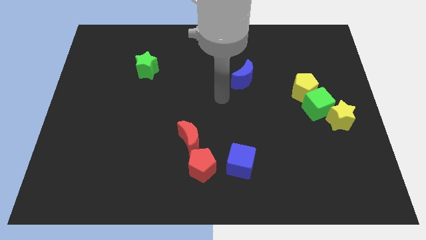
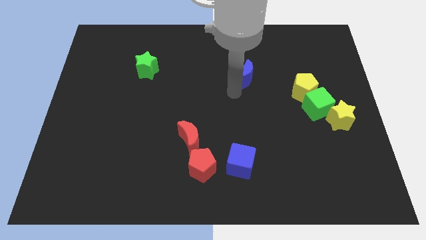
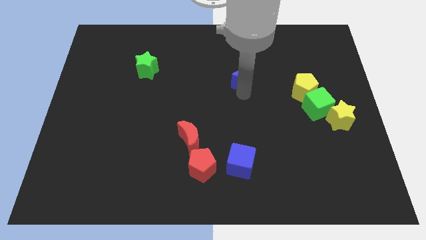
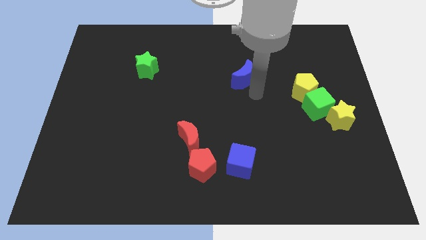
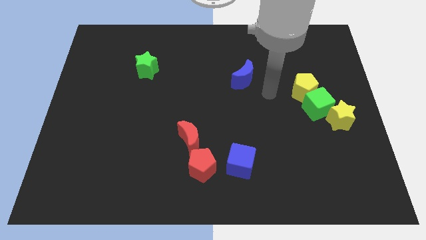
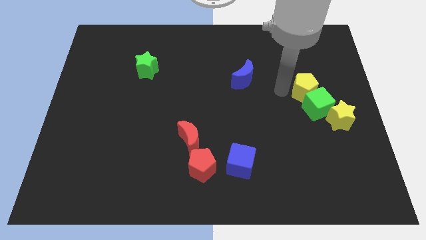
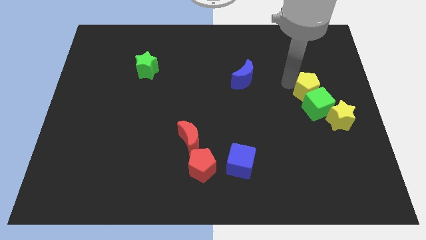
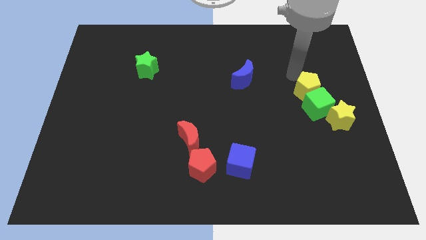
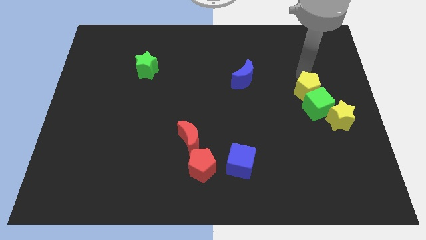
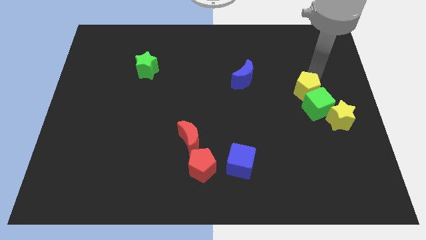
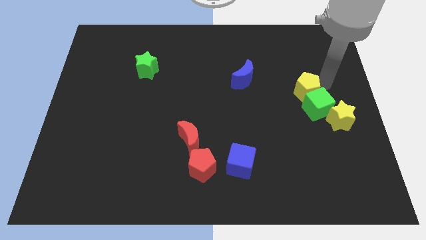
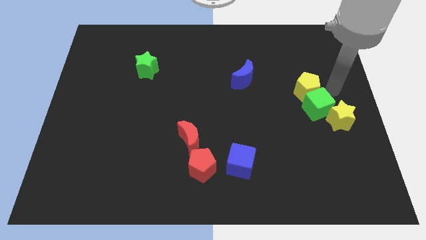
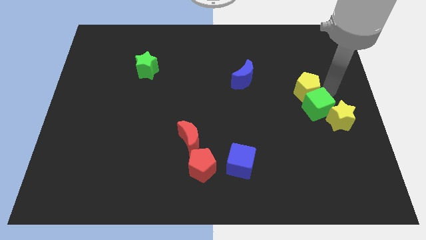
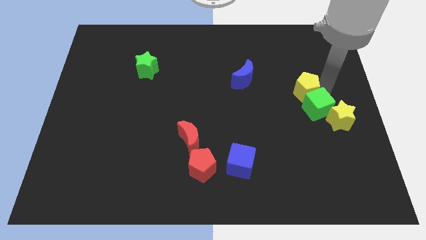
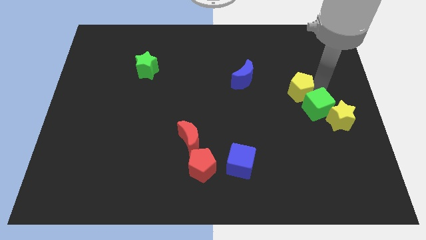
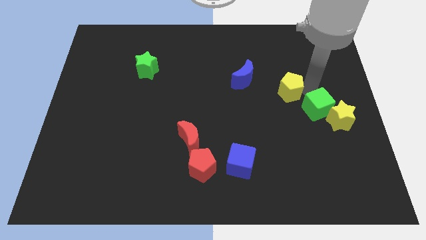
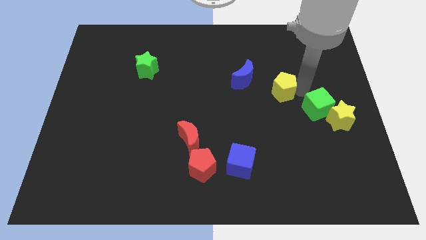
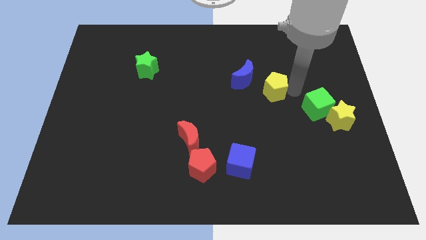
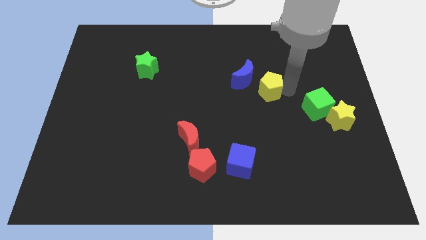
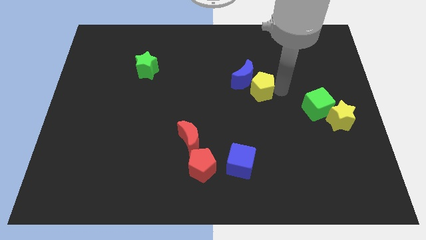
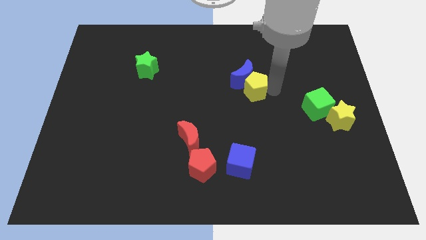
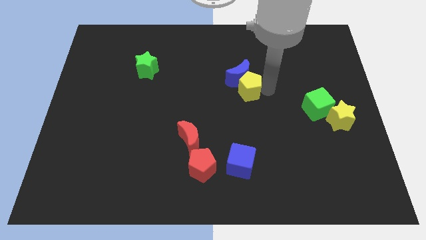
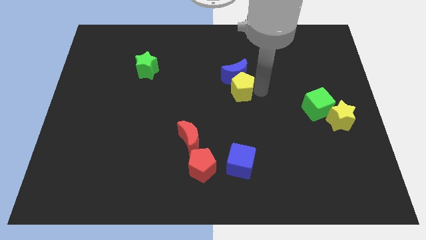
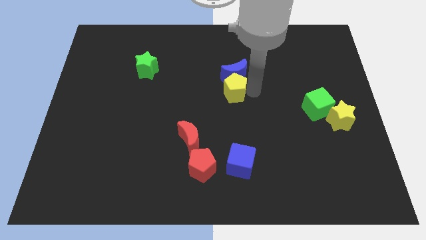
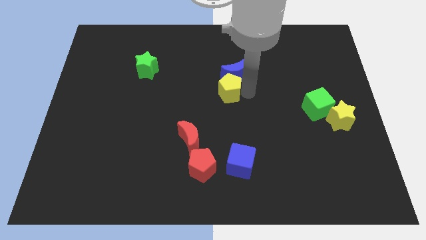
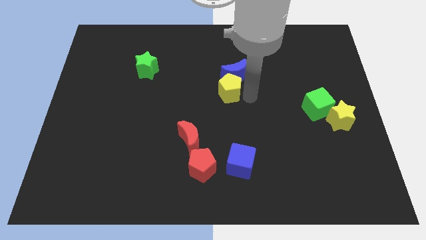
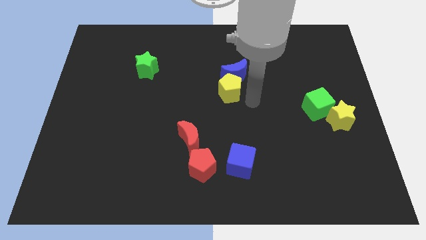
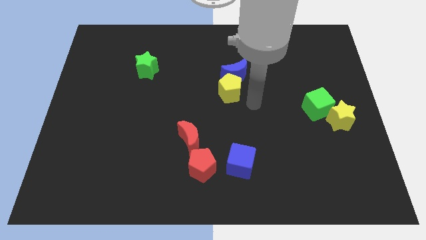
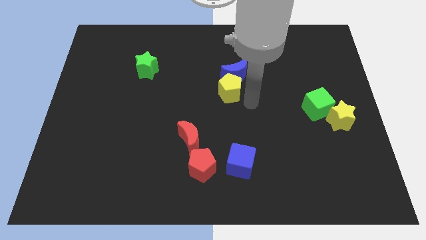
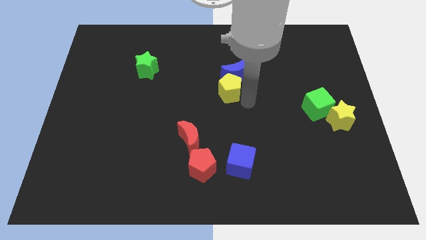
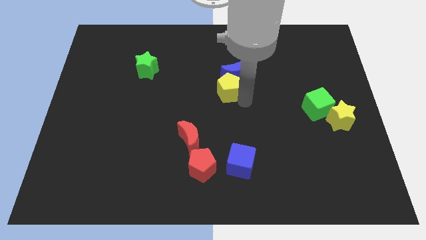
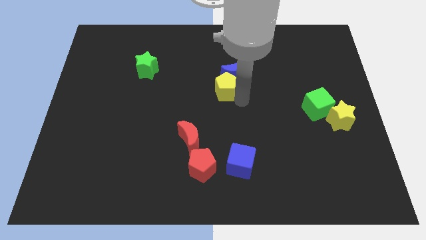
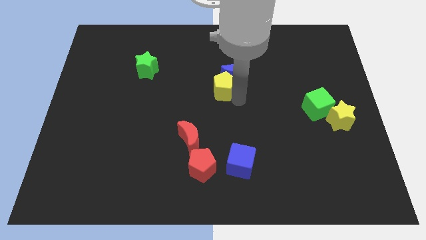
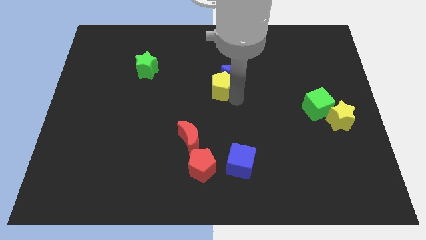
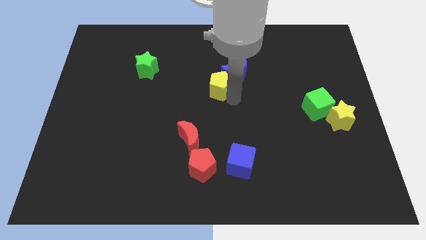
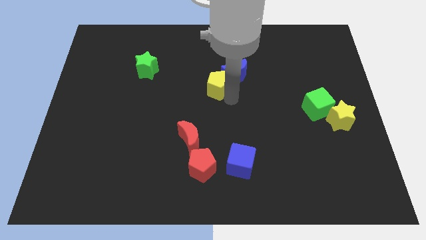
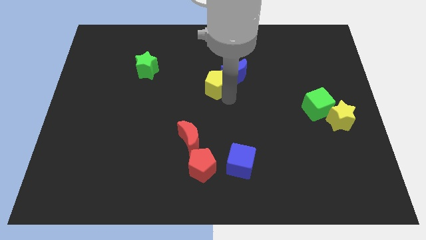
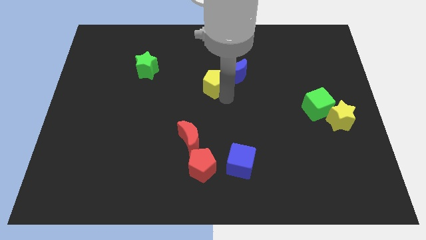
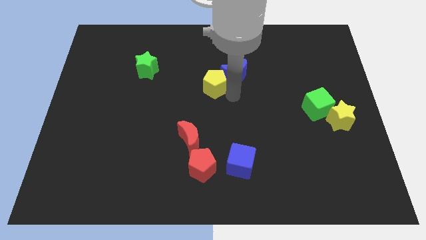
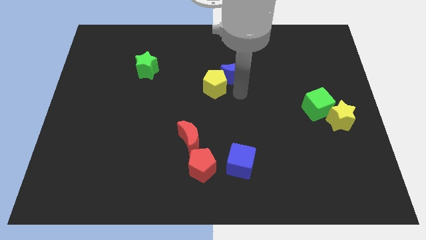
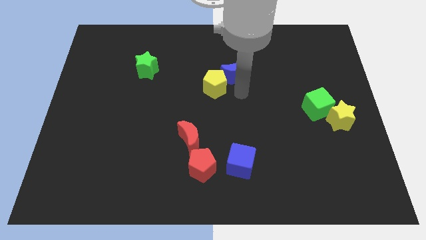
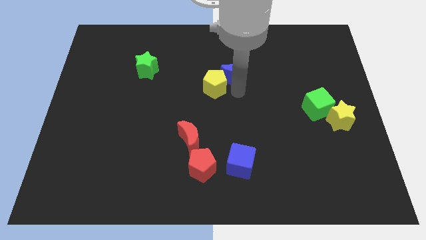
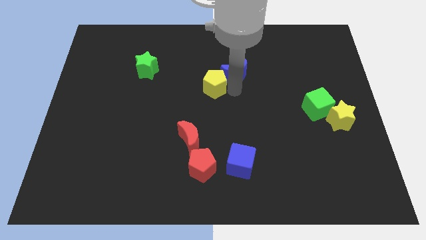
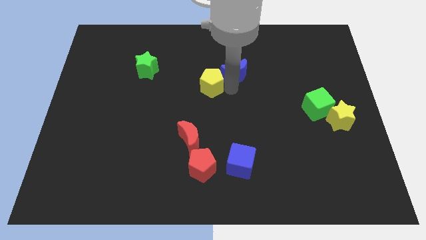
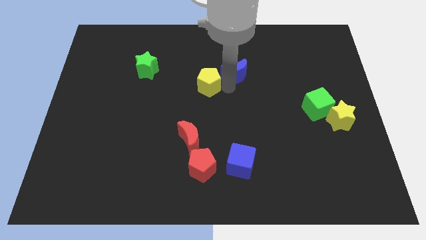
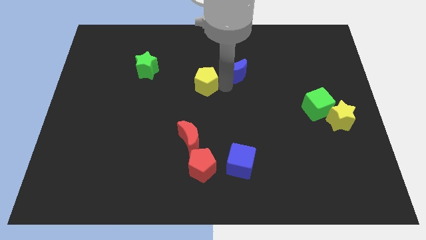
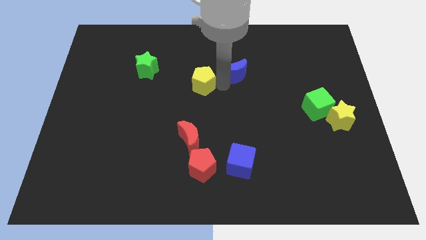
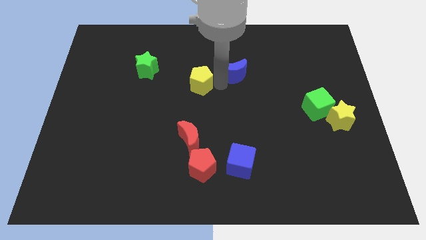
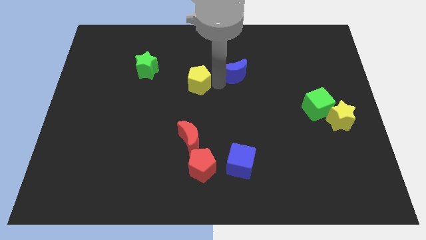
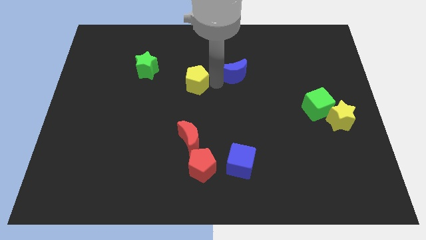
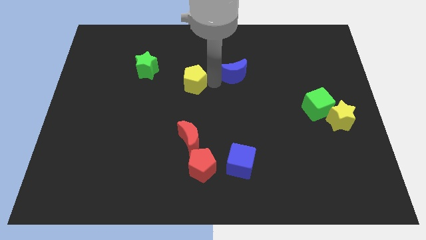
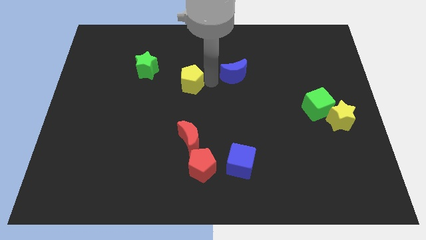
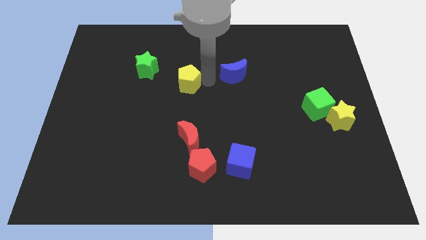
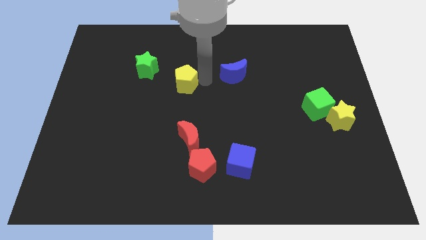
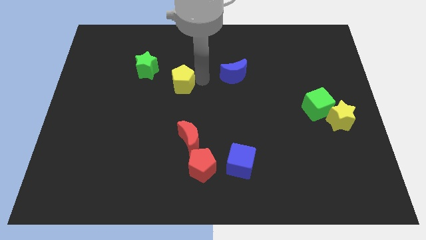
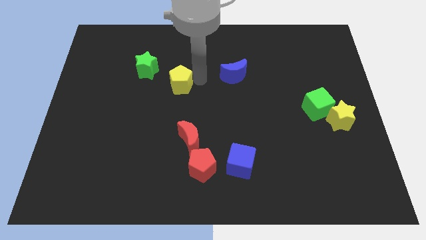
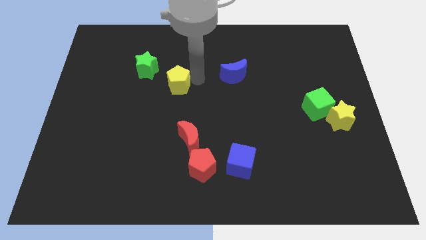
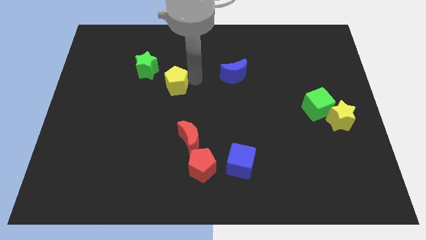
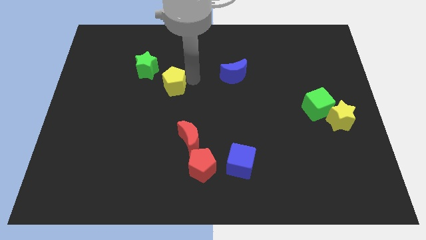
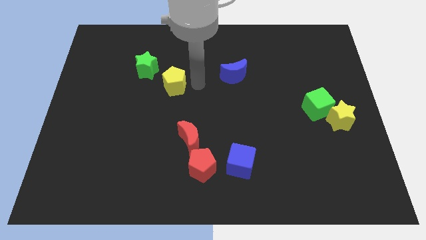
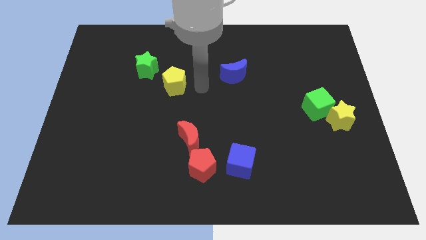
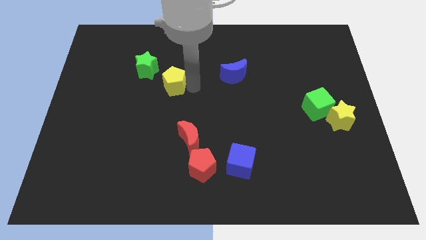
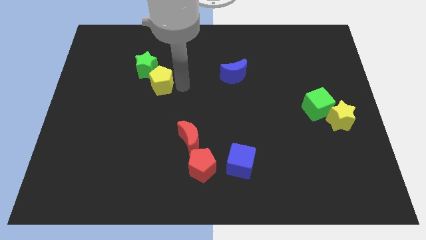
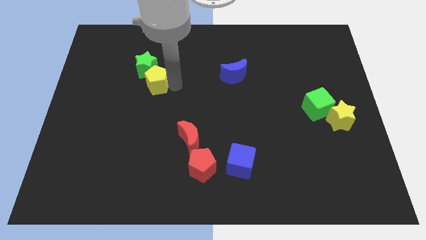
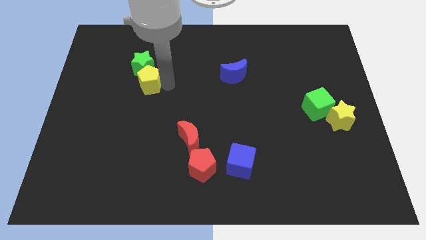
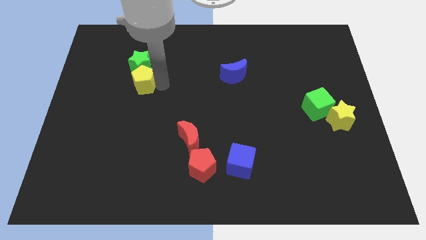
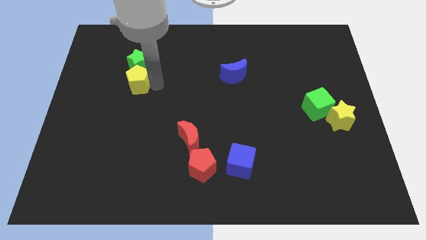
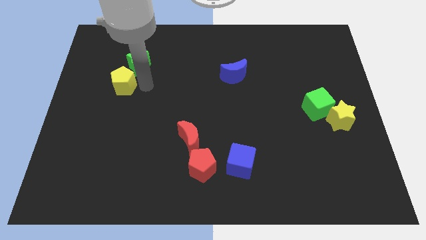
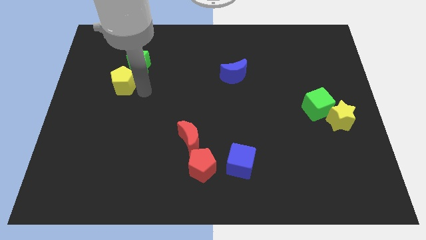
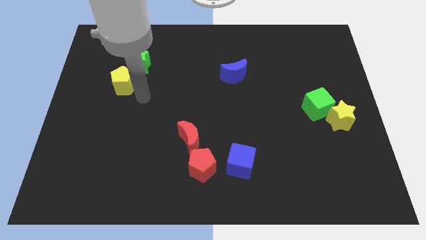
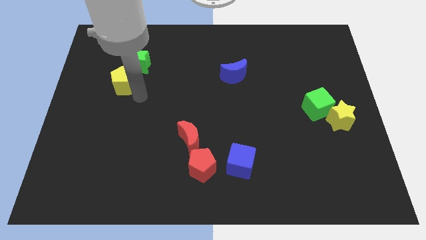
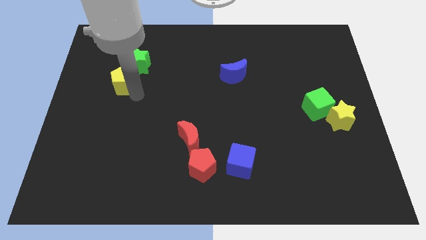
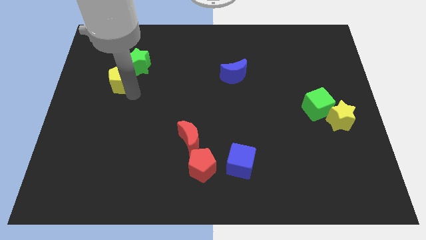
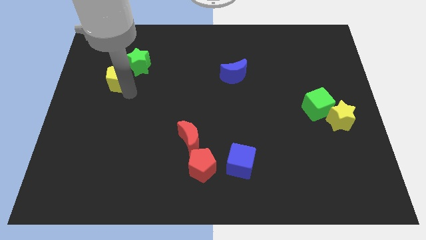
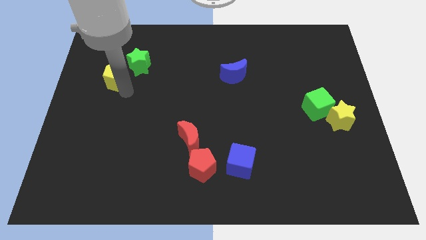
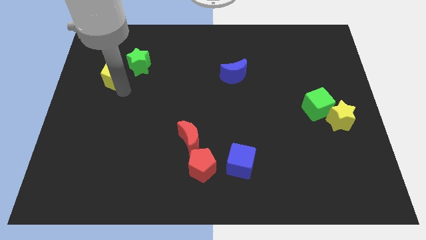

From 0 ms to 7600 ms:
slide the yellow pentagon left of the green star
